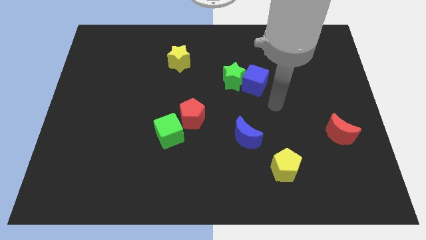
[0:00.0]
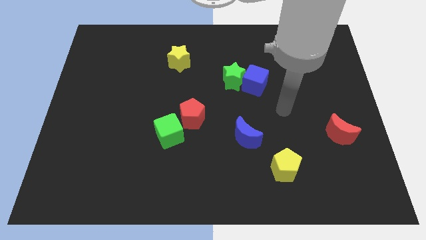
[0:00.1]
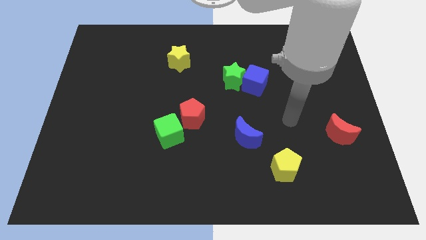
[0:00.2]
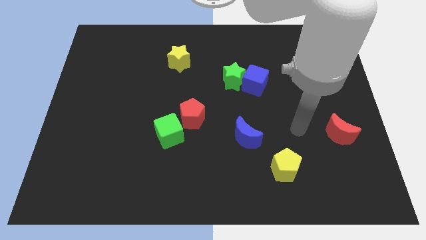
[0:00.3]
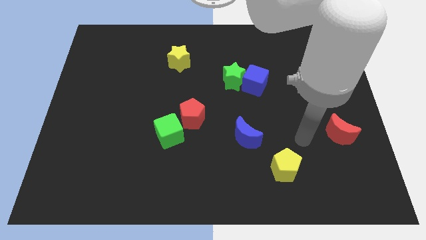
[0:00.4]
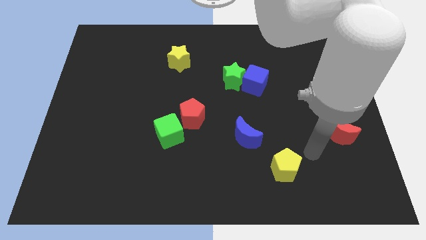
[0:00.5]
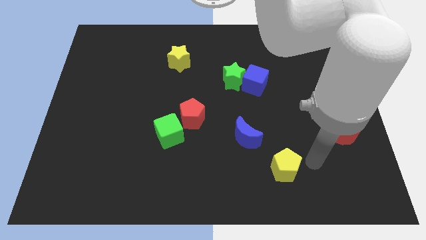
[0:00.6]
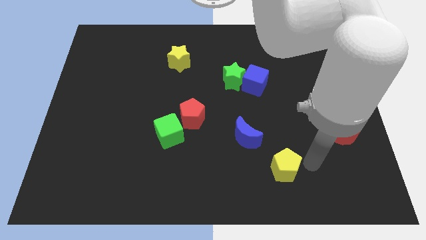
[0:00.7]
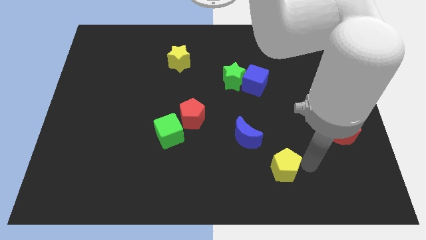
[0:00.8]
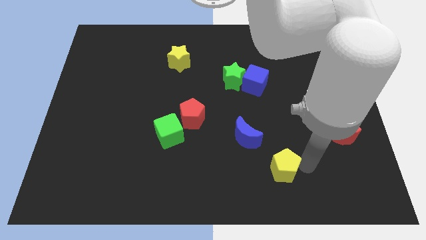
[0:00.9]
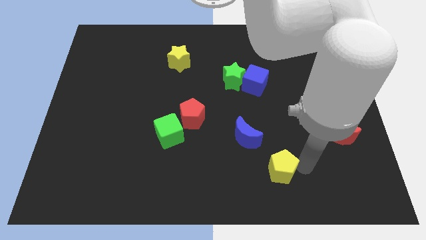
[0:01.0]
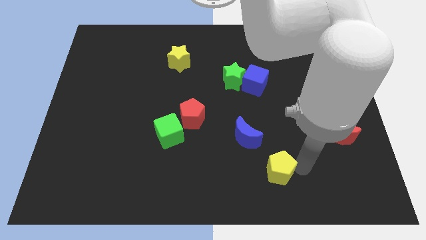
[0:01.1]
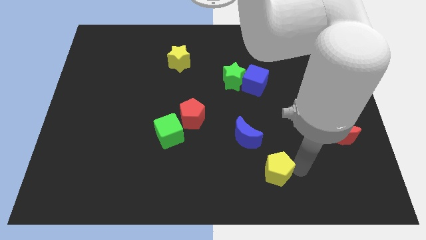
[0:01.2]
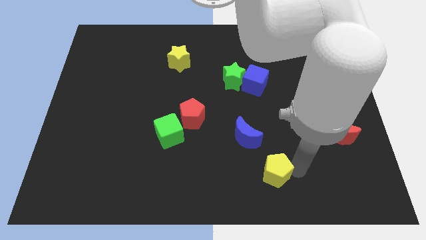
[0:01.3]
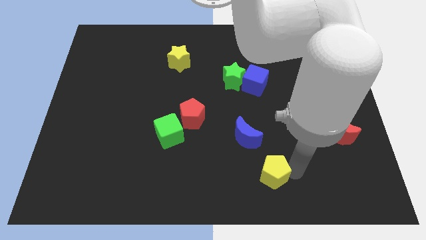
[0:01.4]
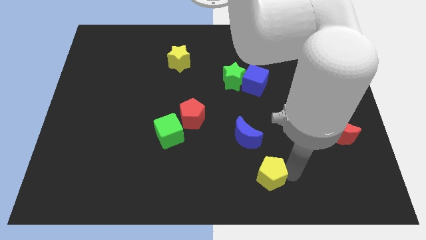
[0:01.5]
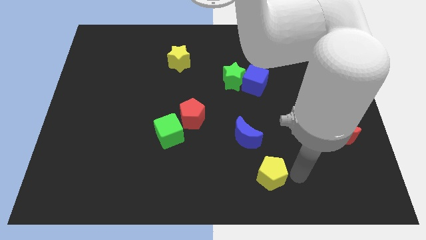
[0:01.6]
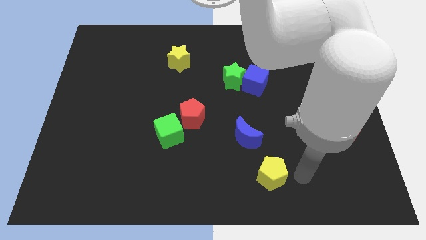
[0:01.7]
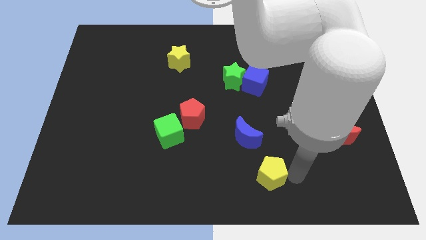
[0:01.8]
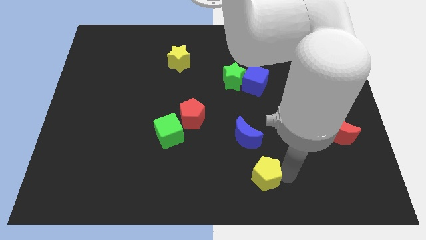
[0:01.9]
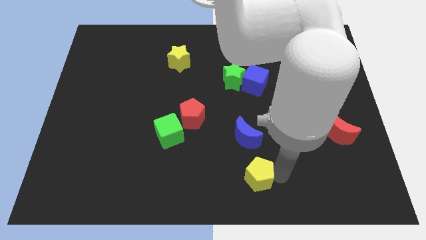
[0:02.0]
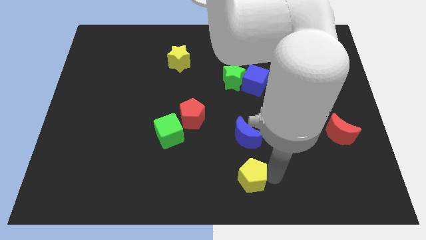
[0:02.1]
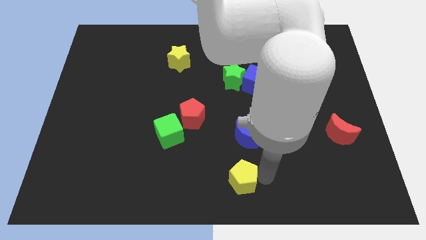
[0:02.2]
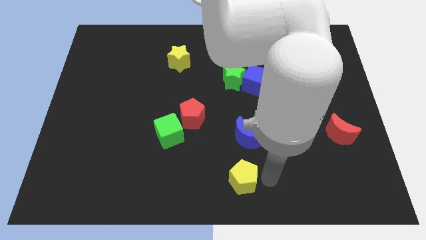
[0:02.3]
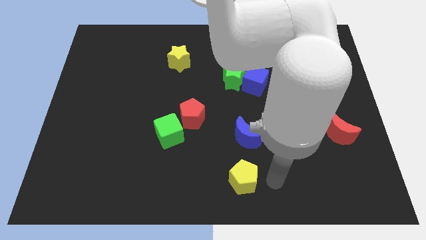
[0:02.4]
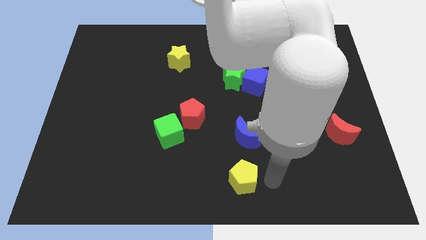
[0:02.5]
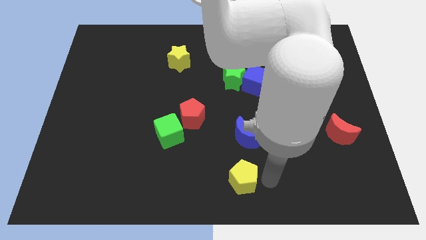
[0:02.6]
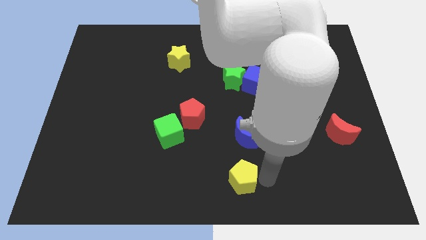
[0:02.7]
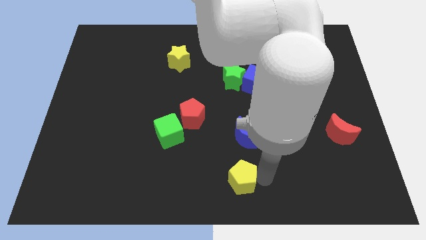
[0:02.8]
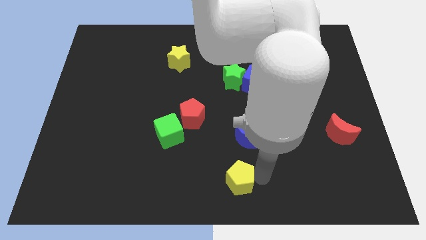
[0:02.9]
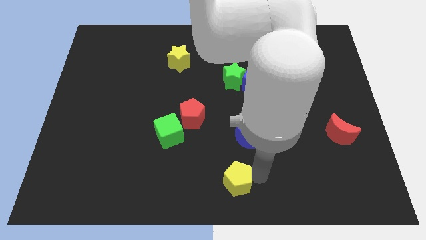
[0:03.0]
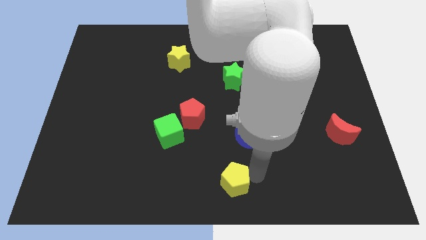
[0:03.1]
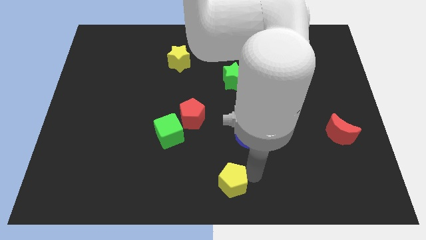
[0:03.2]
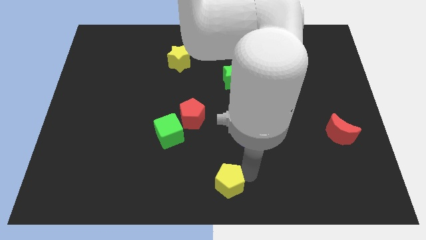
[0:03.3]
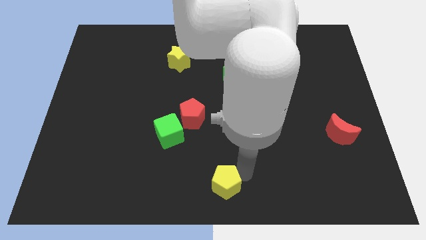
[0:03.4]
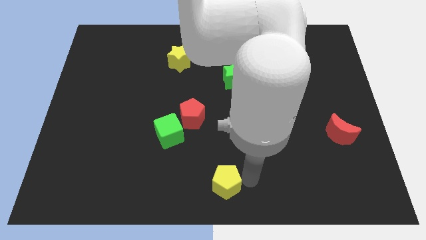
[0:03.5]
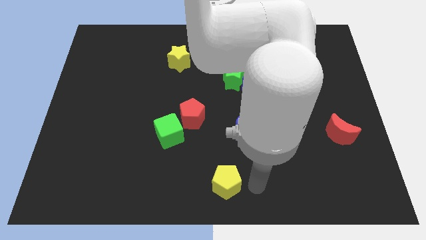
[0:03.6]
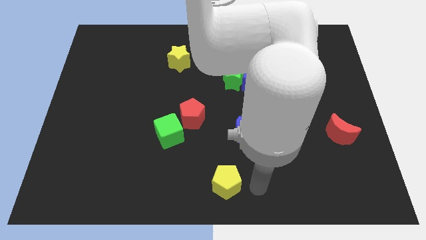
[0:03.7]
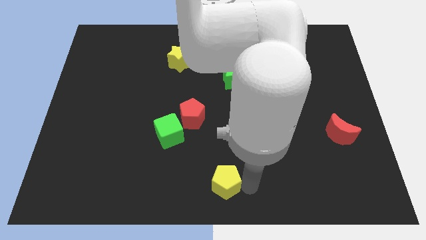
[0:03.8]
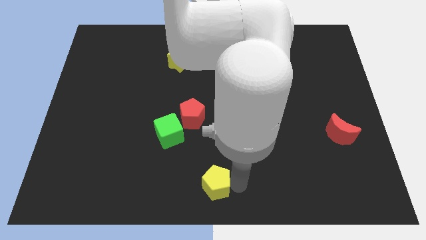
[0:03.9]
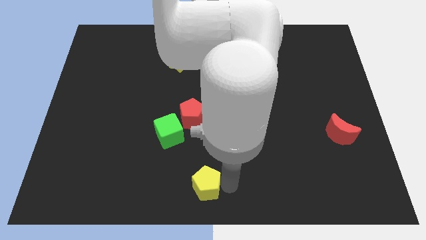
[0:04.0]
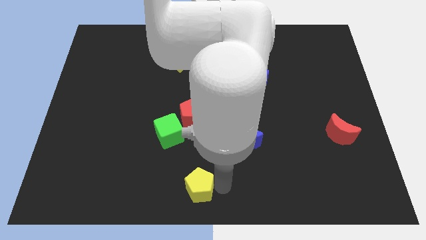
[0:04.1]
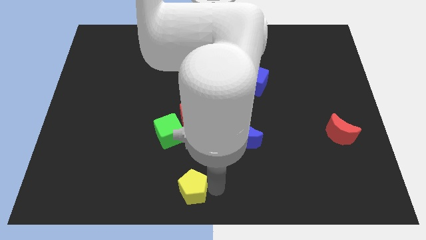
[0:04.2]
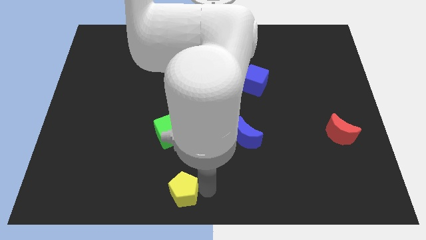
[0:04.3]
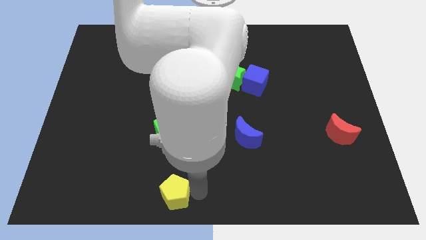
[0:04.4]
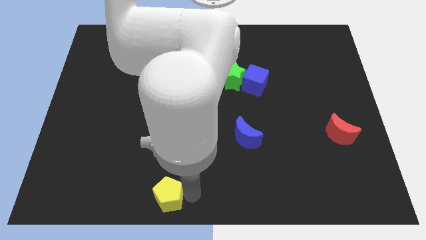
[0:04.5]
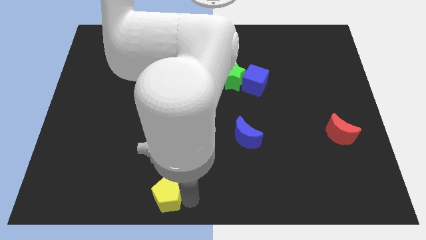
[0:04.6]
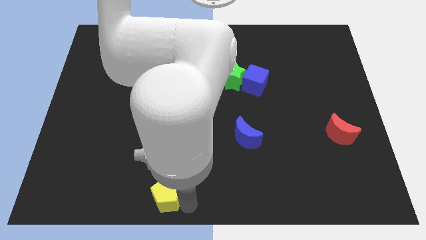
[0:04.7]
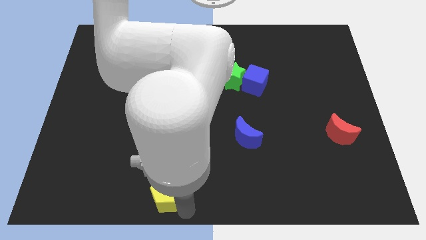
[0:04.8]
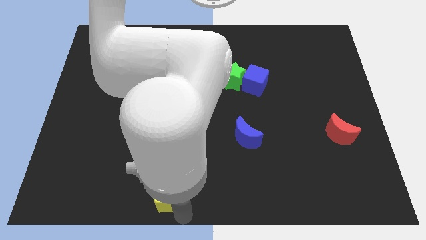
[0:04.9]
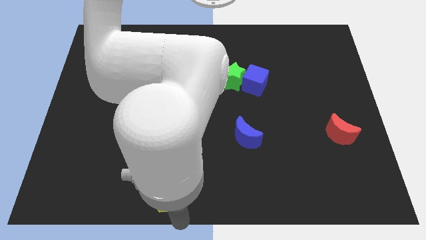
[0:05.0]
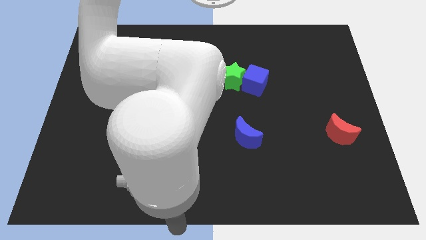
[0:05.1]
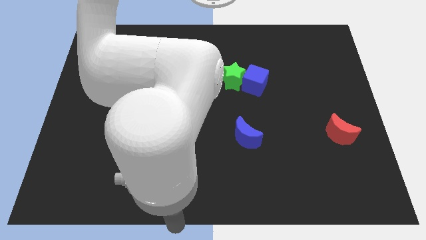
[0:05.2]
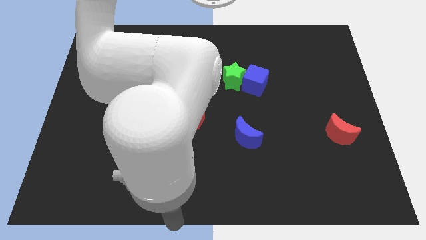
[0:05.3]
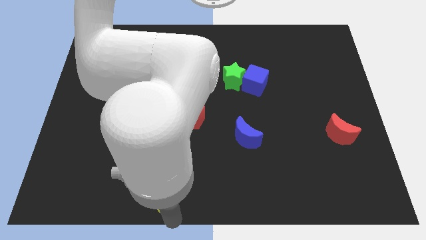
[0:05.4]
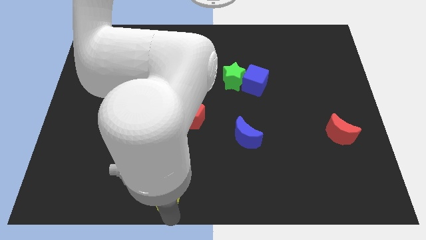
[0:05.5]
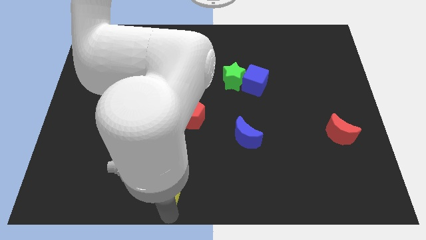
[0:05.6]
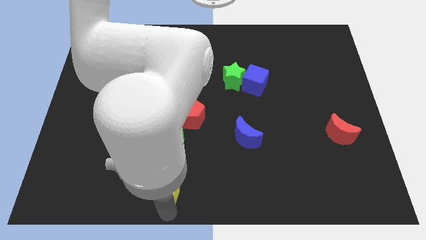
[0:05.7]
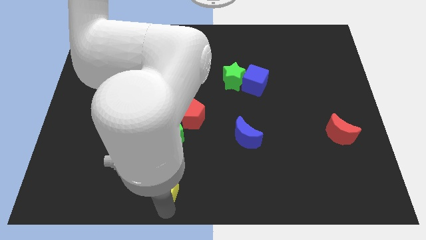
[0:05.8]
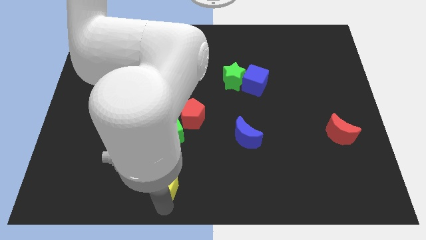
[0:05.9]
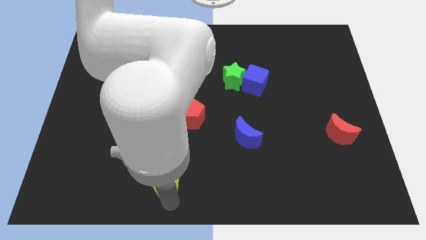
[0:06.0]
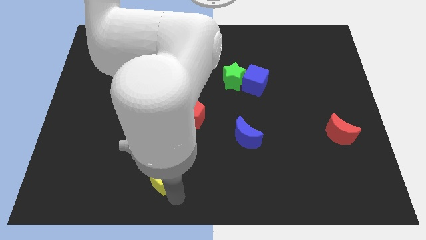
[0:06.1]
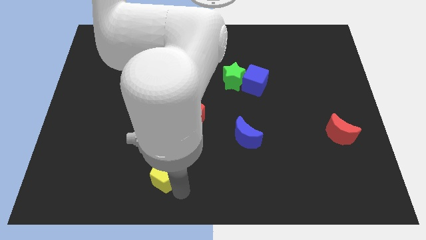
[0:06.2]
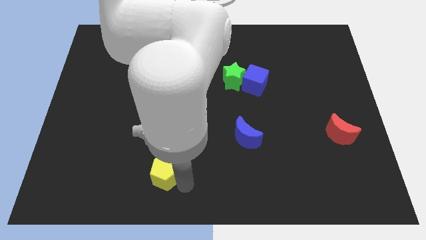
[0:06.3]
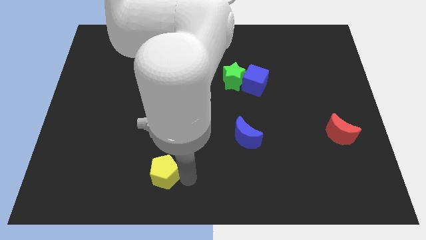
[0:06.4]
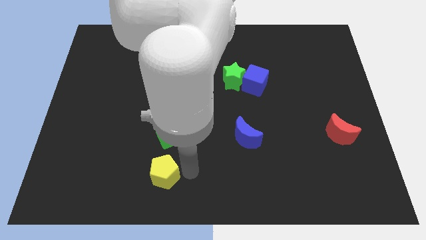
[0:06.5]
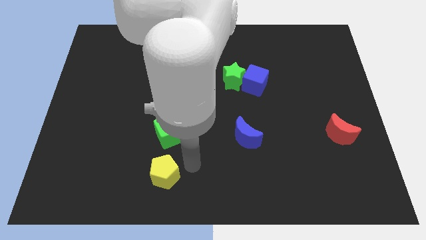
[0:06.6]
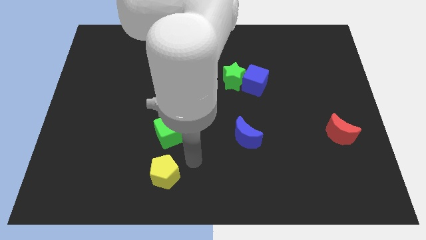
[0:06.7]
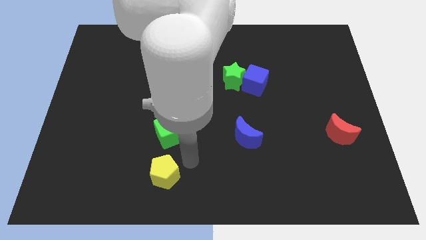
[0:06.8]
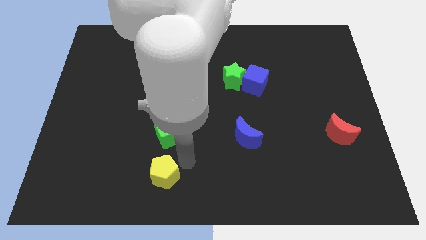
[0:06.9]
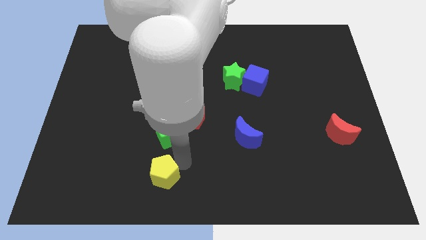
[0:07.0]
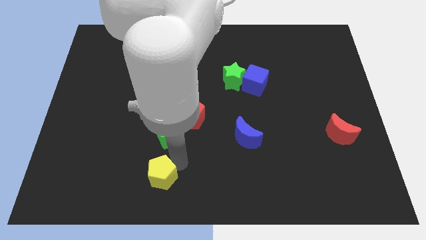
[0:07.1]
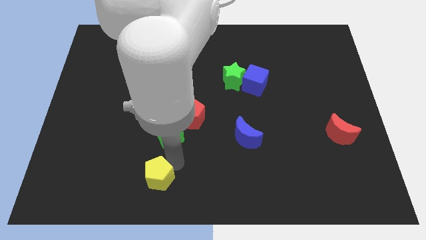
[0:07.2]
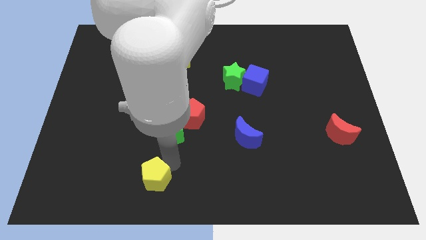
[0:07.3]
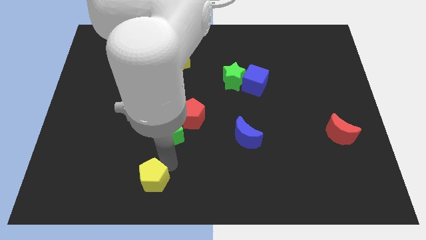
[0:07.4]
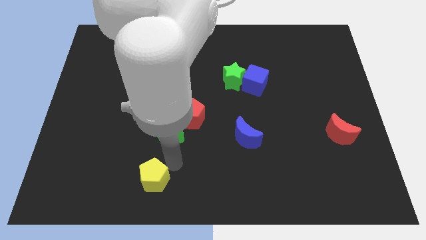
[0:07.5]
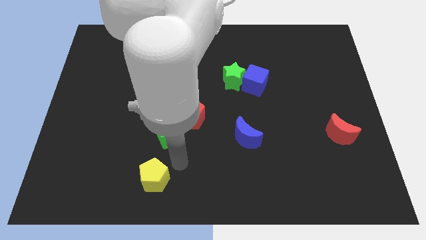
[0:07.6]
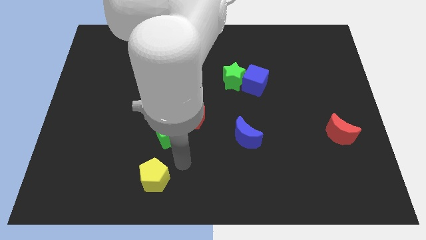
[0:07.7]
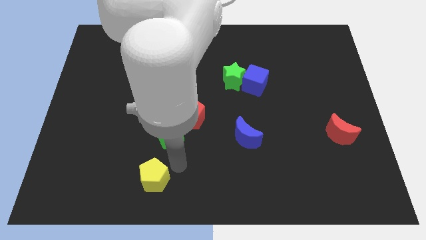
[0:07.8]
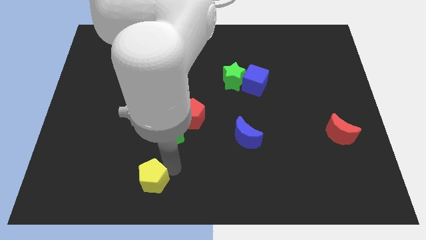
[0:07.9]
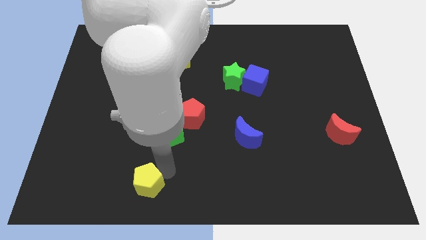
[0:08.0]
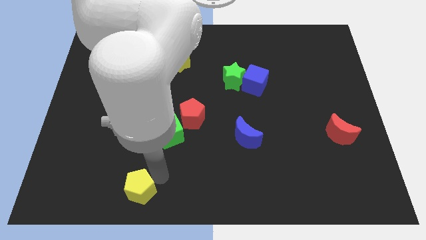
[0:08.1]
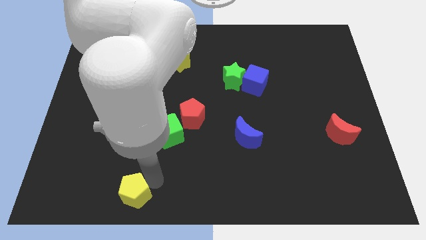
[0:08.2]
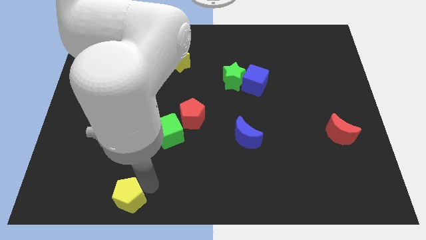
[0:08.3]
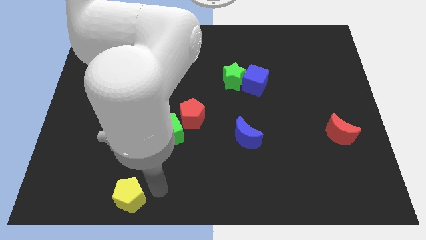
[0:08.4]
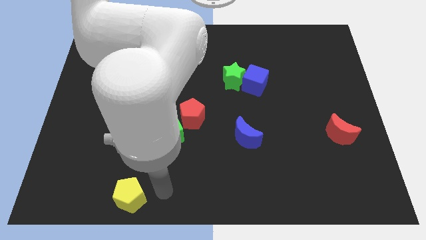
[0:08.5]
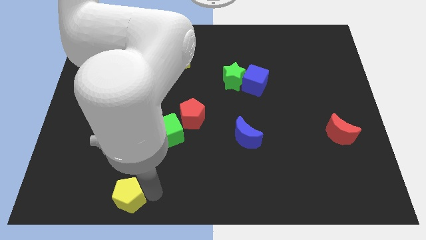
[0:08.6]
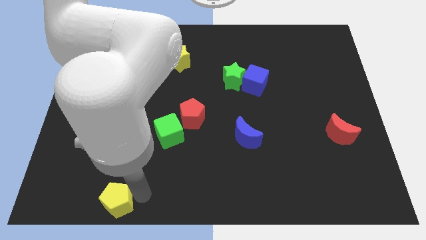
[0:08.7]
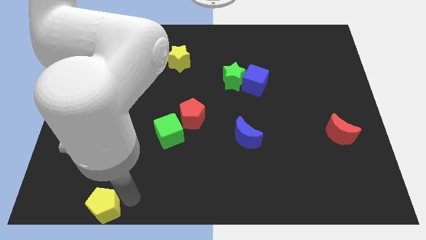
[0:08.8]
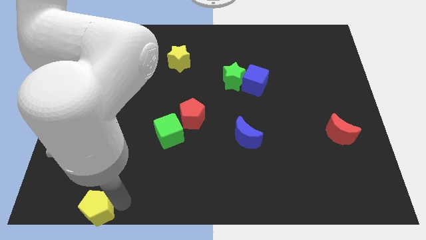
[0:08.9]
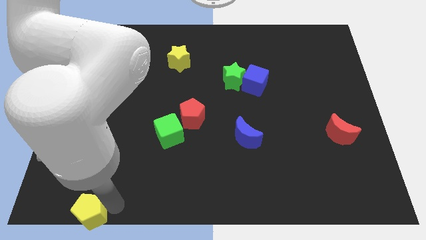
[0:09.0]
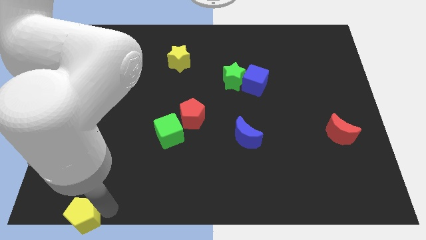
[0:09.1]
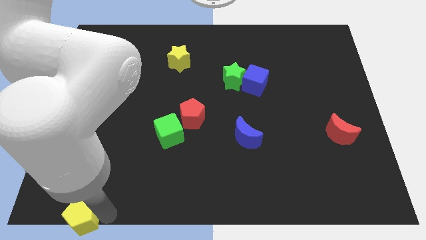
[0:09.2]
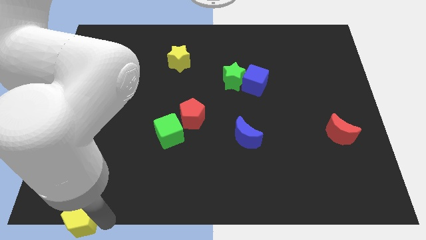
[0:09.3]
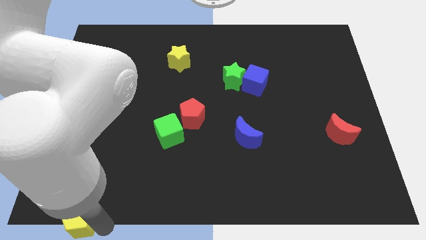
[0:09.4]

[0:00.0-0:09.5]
push the yellow pentagon to the bottom left corner
